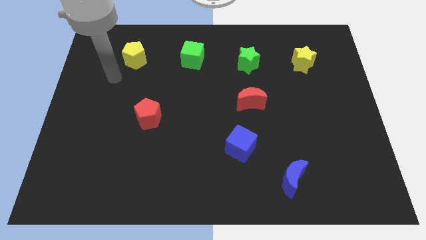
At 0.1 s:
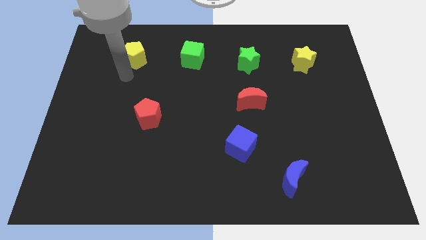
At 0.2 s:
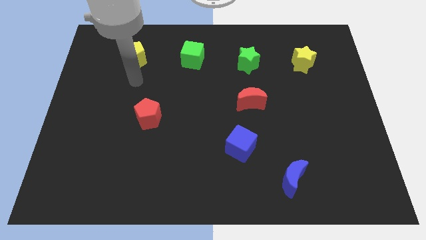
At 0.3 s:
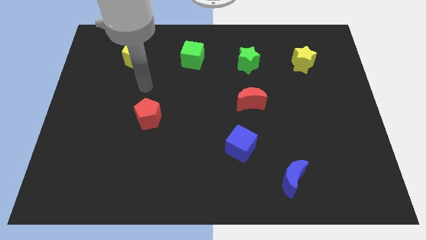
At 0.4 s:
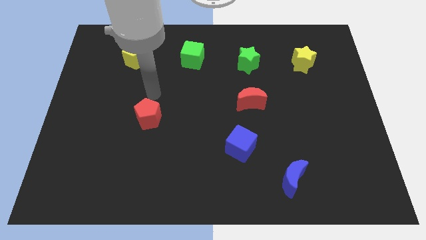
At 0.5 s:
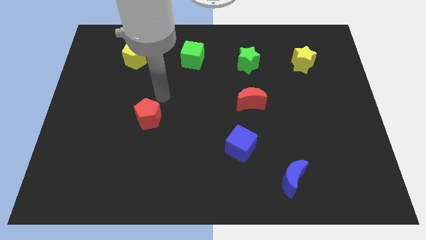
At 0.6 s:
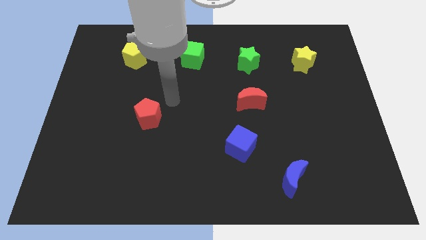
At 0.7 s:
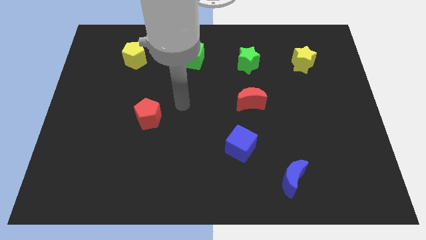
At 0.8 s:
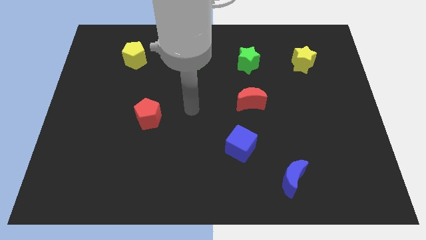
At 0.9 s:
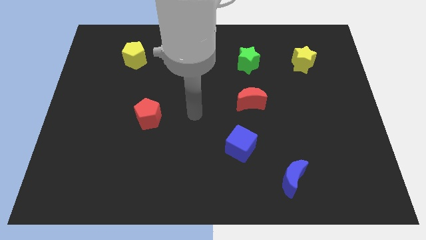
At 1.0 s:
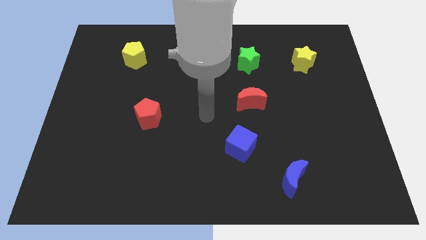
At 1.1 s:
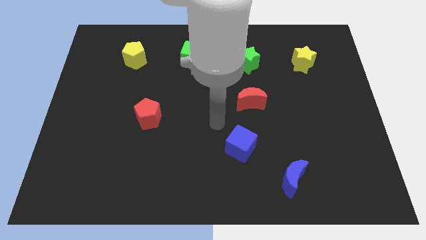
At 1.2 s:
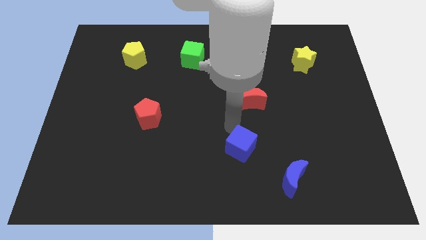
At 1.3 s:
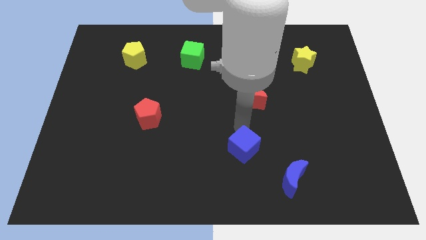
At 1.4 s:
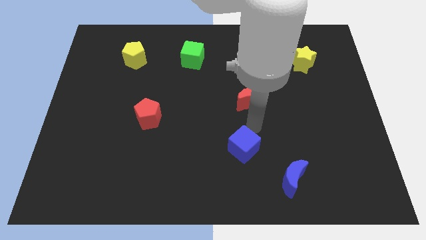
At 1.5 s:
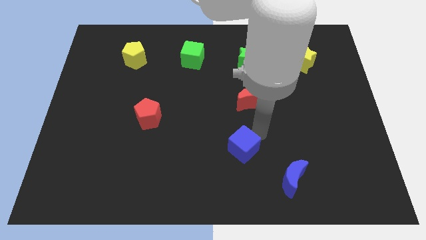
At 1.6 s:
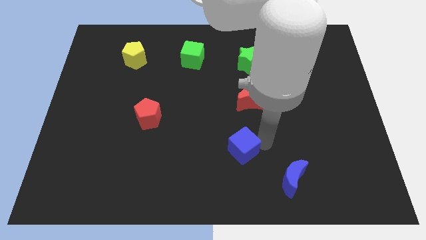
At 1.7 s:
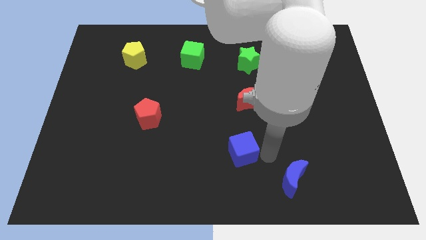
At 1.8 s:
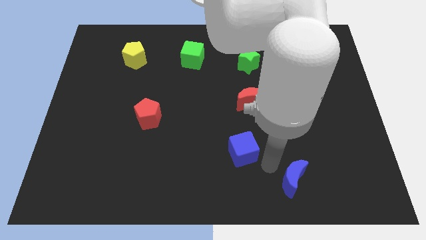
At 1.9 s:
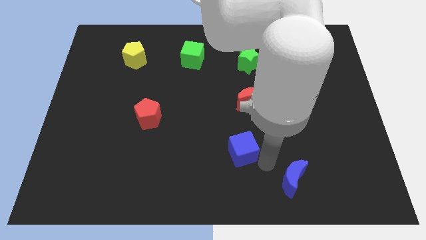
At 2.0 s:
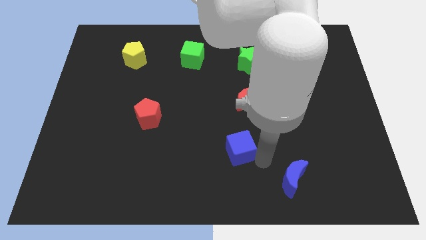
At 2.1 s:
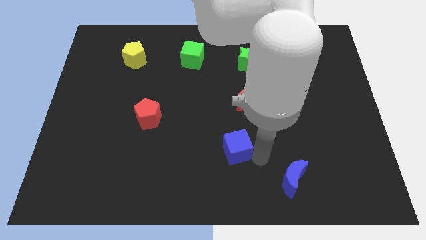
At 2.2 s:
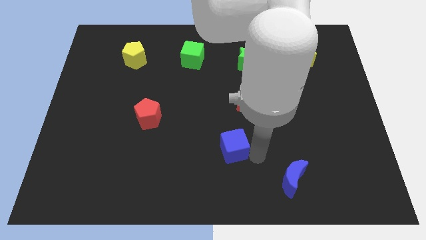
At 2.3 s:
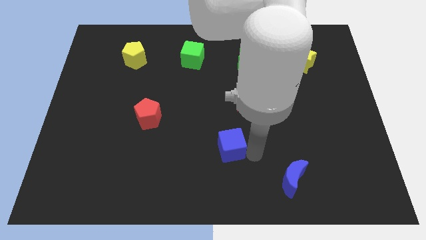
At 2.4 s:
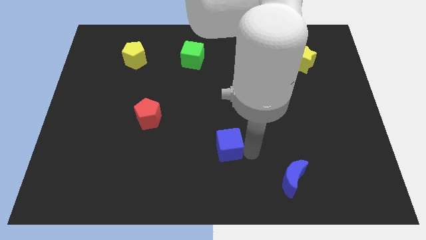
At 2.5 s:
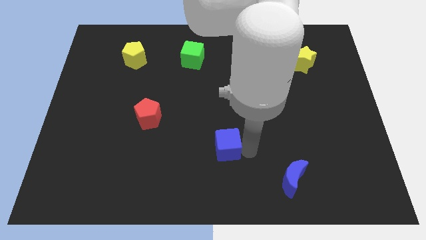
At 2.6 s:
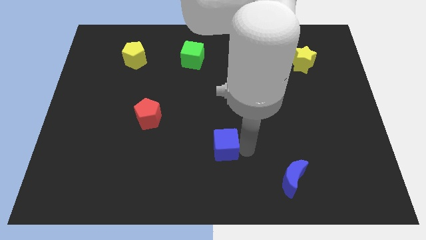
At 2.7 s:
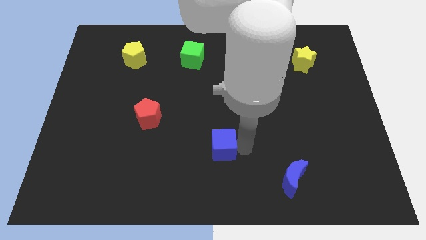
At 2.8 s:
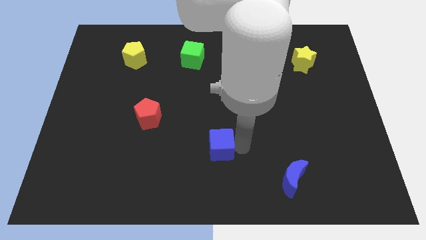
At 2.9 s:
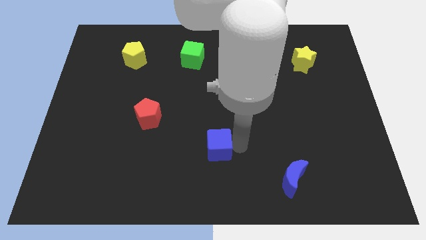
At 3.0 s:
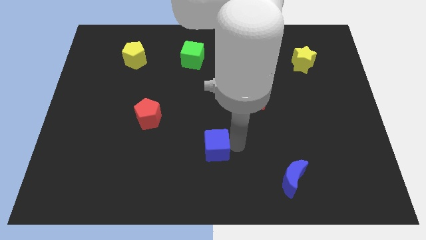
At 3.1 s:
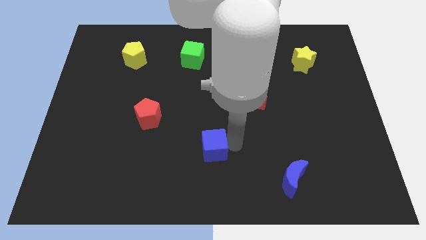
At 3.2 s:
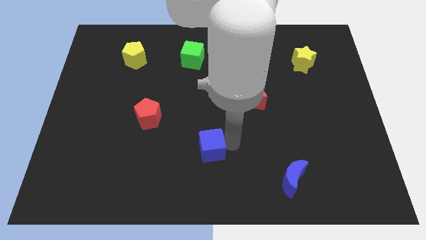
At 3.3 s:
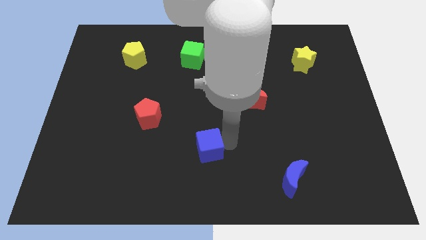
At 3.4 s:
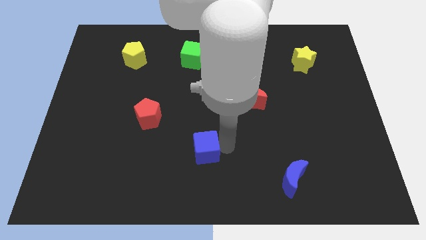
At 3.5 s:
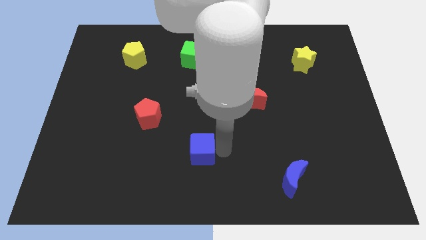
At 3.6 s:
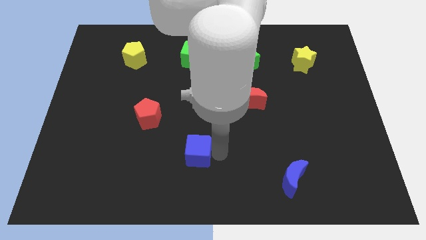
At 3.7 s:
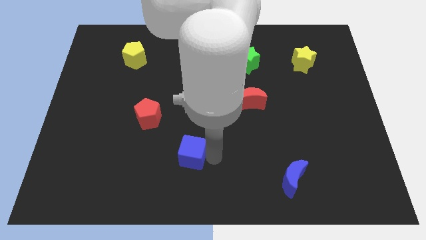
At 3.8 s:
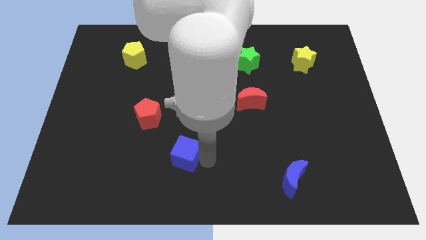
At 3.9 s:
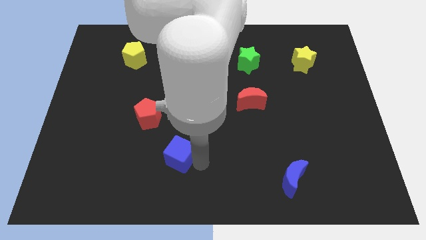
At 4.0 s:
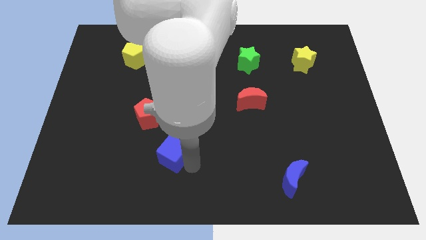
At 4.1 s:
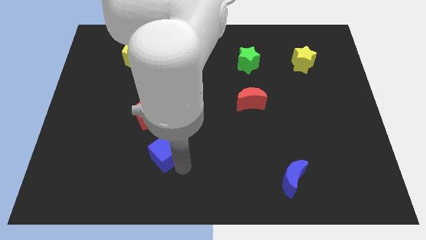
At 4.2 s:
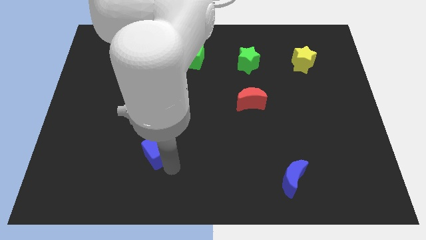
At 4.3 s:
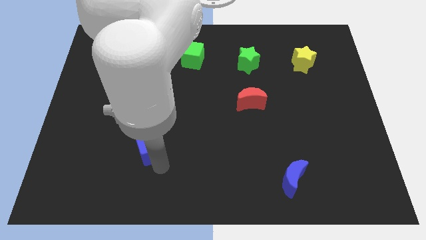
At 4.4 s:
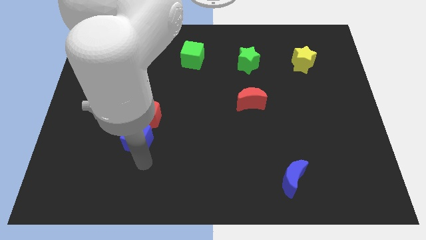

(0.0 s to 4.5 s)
slide the blue cube left

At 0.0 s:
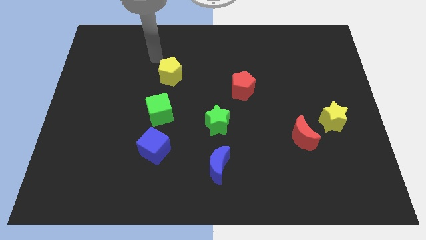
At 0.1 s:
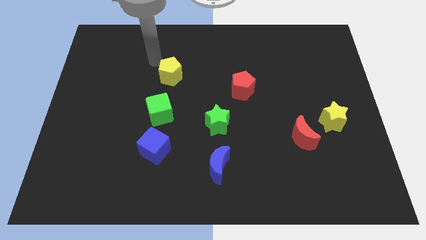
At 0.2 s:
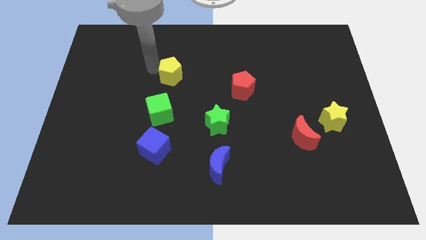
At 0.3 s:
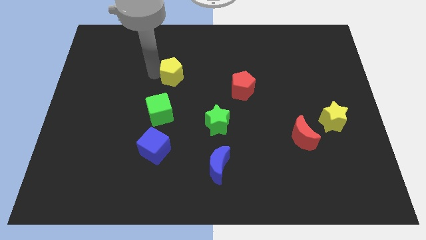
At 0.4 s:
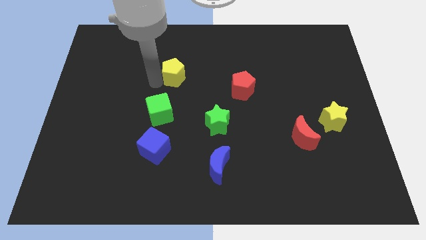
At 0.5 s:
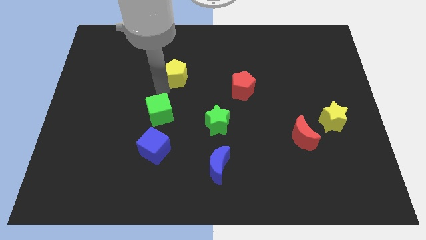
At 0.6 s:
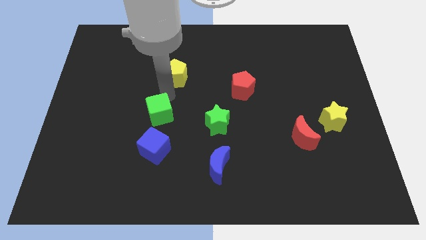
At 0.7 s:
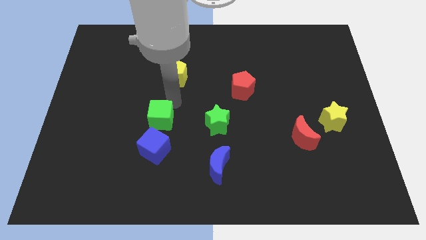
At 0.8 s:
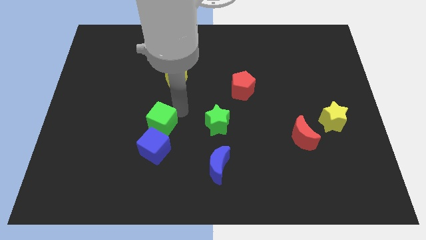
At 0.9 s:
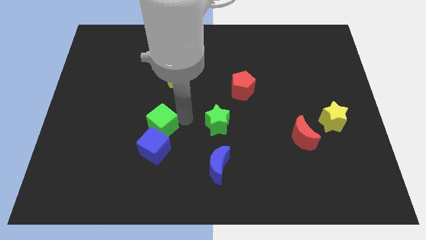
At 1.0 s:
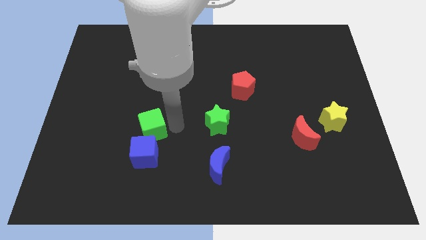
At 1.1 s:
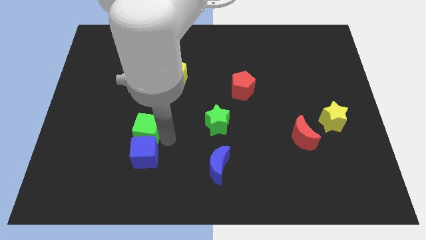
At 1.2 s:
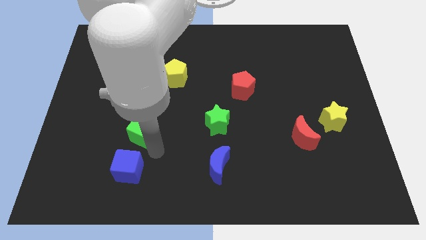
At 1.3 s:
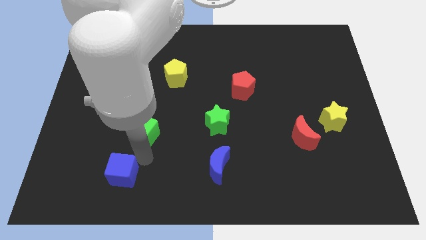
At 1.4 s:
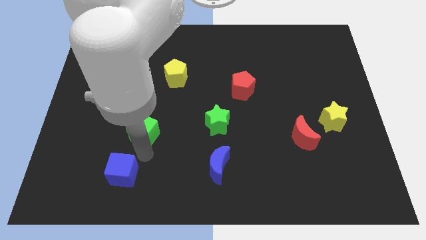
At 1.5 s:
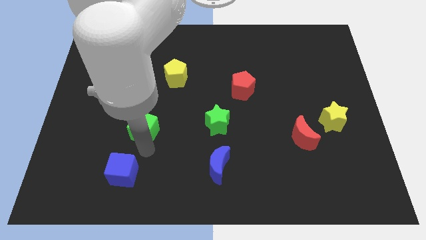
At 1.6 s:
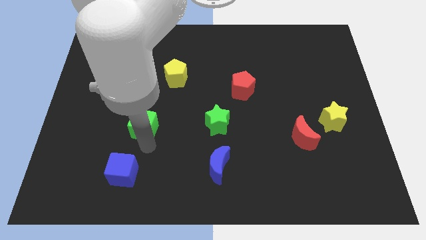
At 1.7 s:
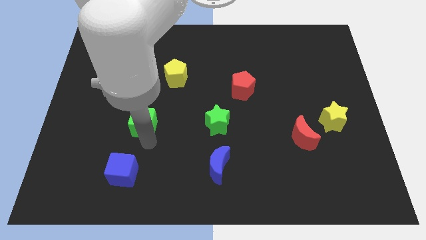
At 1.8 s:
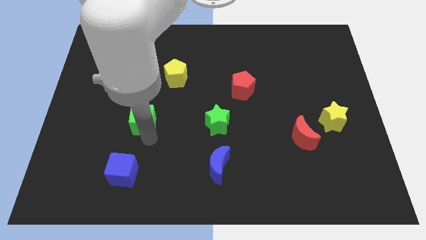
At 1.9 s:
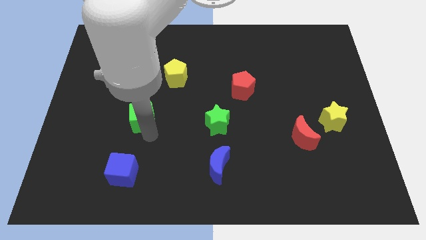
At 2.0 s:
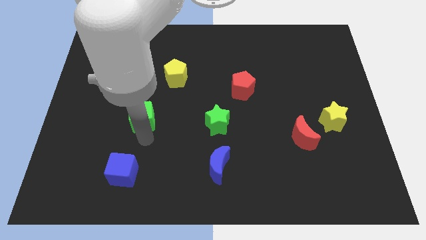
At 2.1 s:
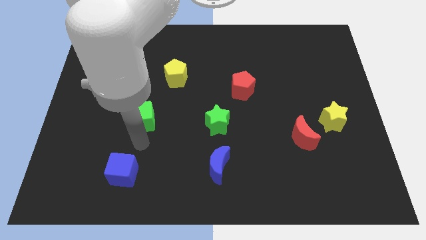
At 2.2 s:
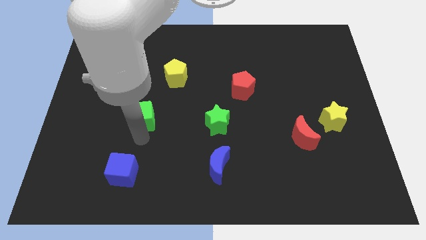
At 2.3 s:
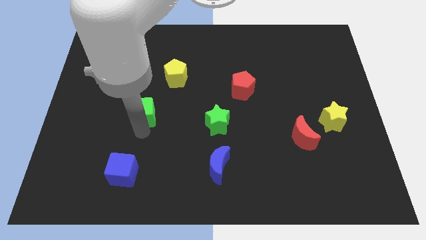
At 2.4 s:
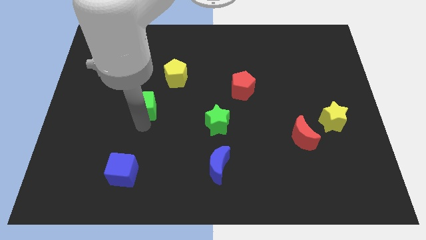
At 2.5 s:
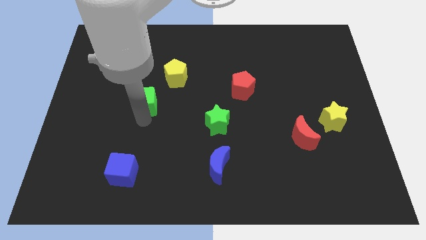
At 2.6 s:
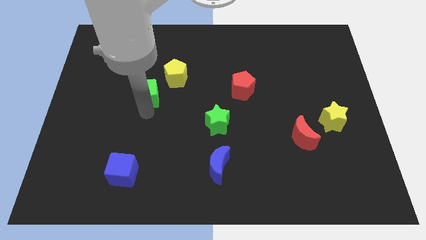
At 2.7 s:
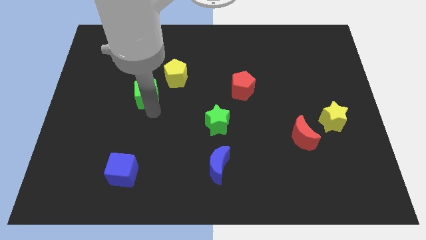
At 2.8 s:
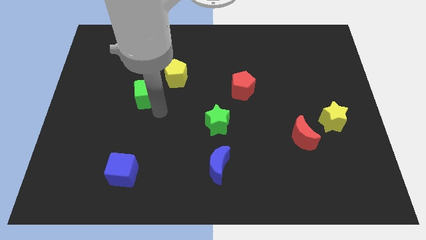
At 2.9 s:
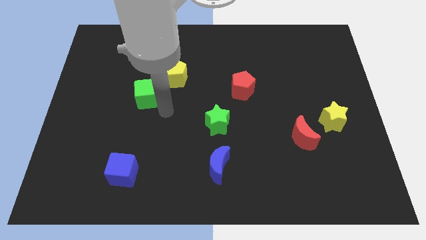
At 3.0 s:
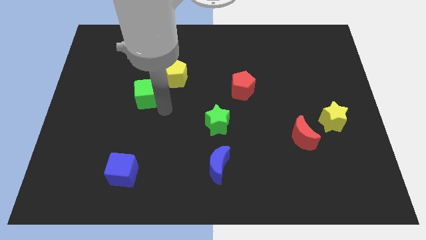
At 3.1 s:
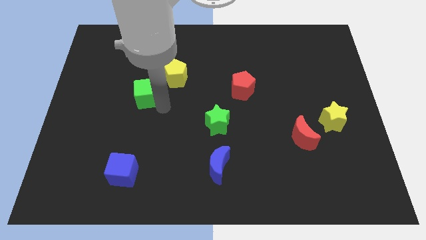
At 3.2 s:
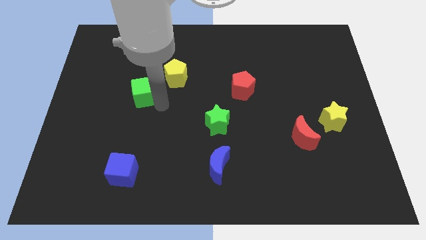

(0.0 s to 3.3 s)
slightly slide the green cube diagonally up and left
